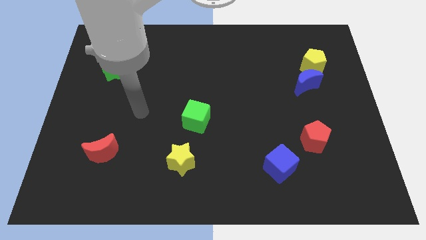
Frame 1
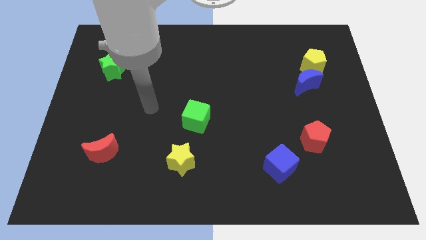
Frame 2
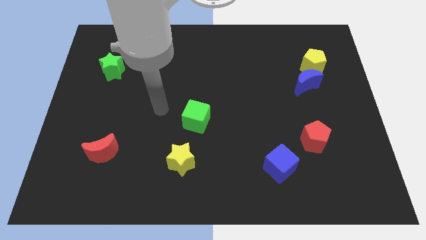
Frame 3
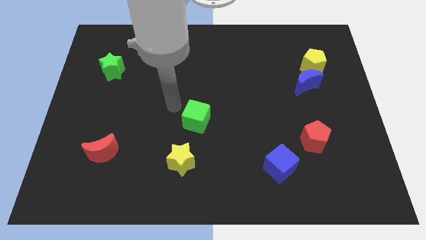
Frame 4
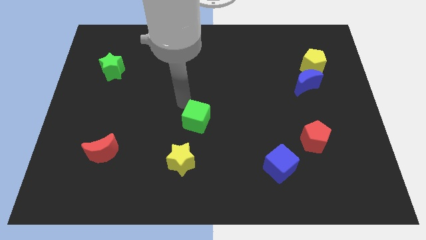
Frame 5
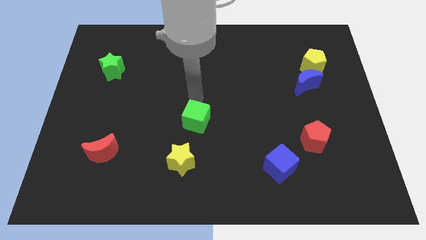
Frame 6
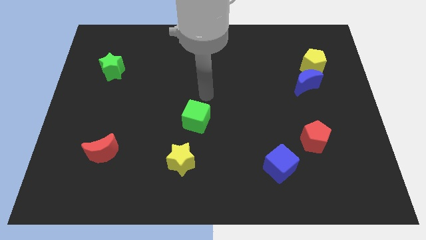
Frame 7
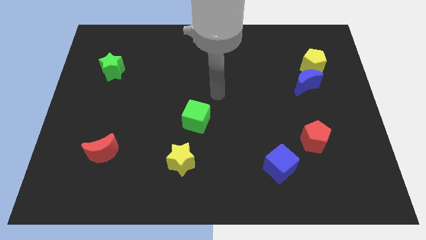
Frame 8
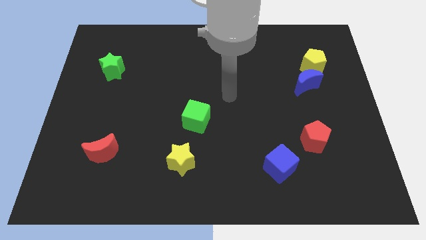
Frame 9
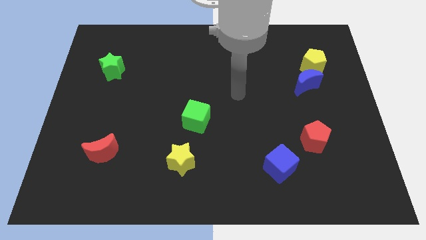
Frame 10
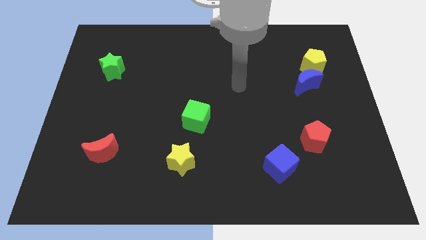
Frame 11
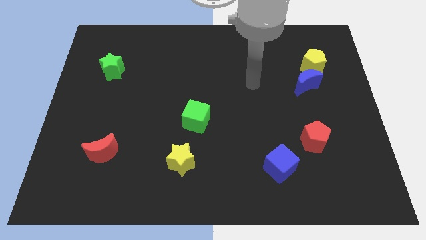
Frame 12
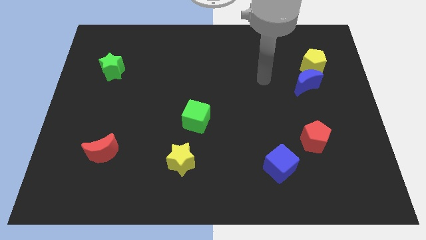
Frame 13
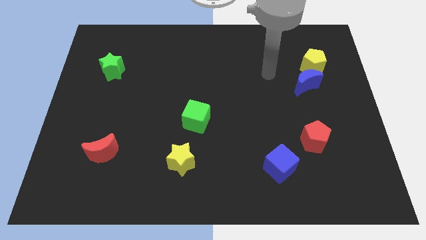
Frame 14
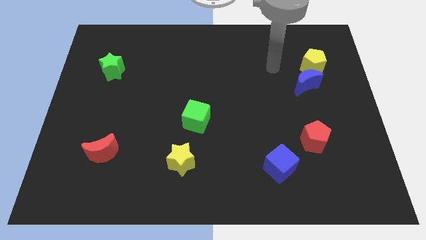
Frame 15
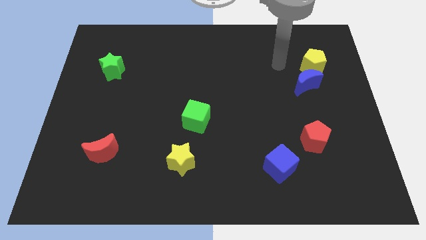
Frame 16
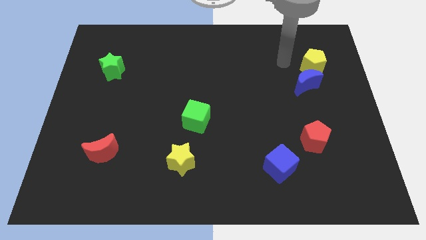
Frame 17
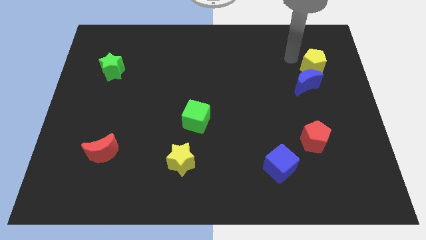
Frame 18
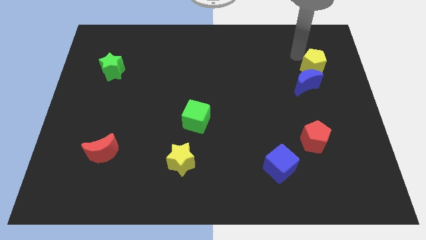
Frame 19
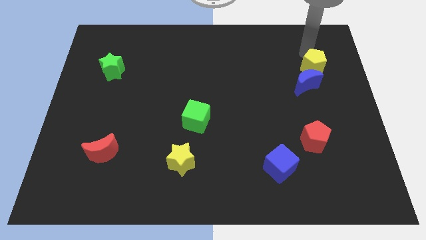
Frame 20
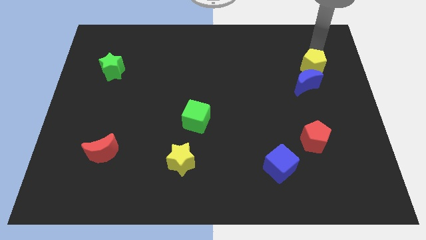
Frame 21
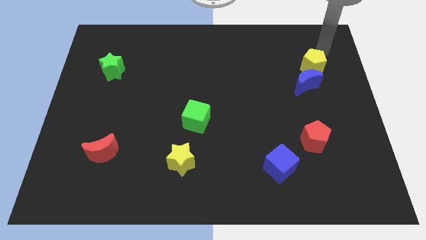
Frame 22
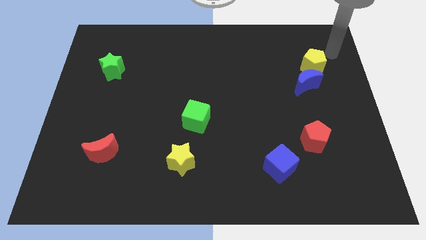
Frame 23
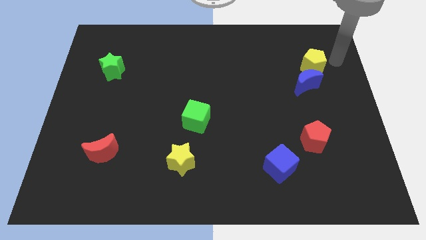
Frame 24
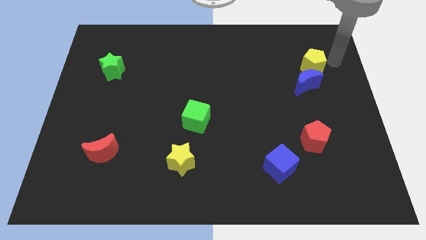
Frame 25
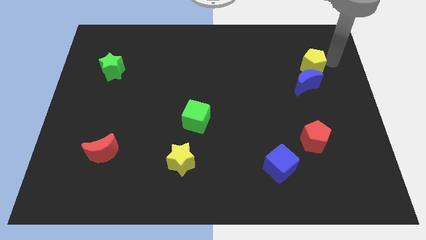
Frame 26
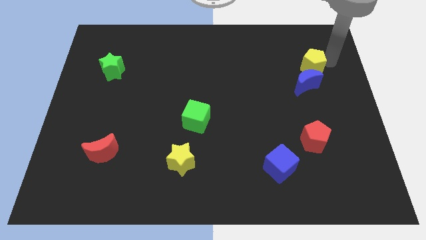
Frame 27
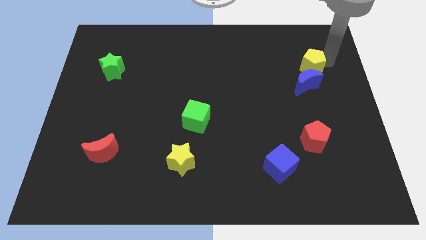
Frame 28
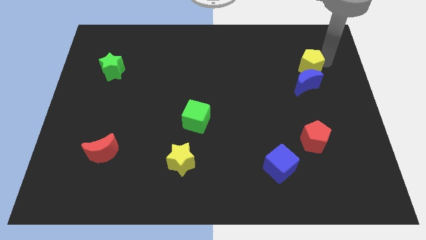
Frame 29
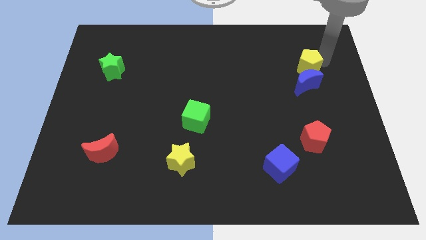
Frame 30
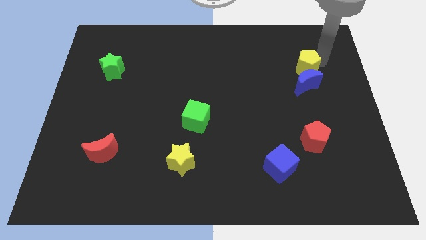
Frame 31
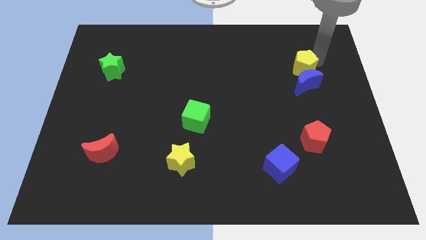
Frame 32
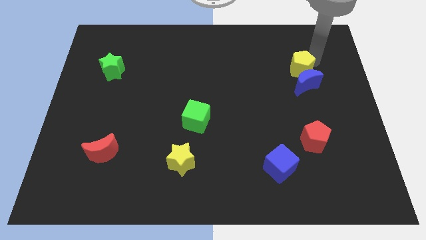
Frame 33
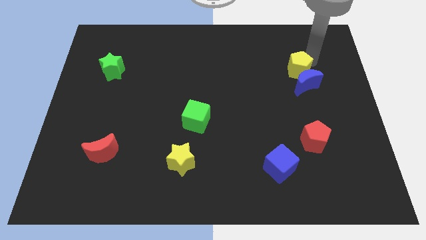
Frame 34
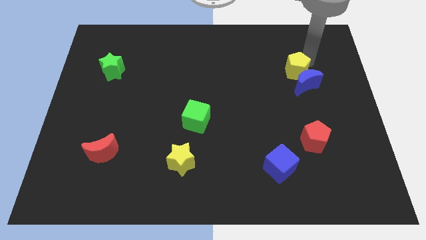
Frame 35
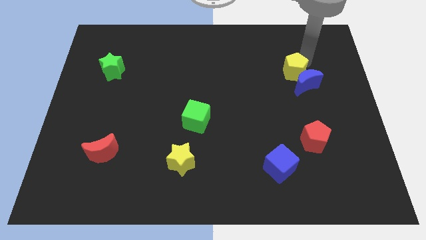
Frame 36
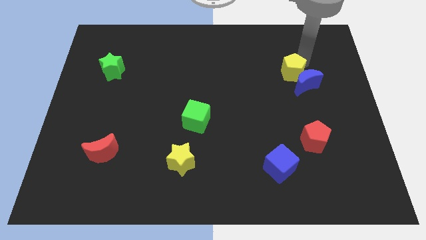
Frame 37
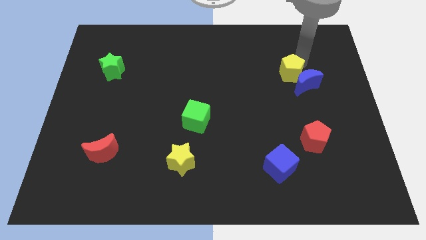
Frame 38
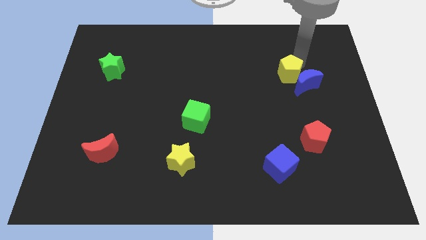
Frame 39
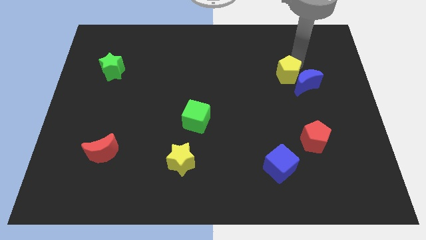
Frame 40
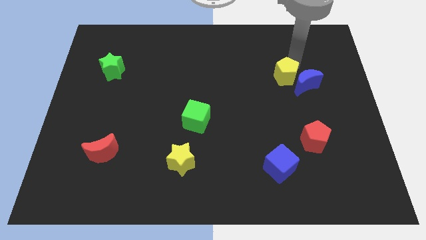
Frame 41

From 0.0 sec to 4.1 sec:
push the yellow pentagon slightly downwards and then to the left

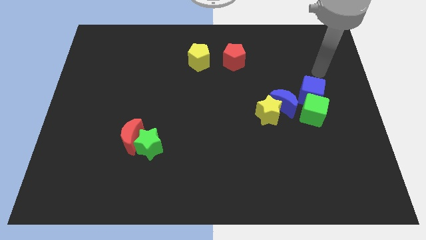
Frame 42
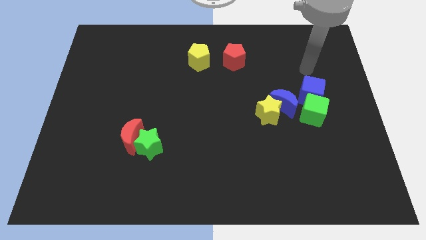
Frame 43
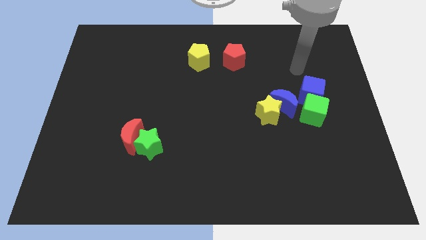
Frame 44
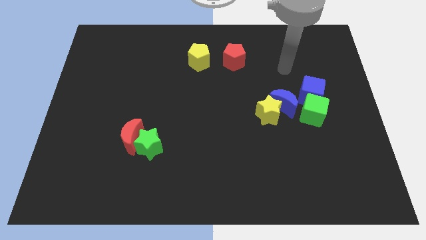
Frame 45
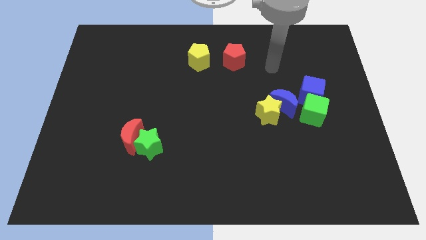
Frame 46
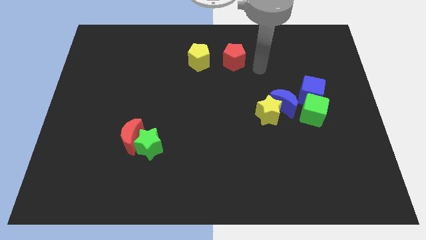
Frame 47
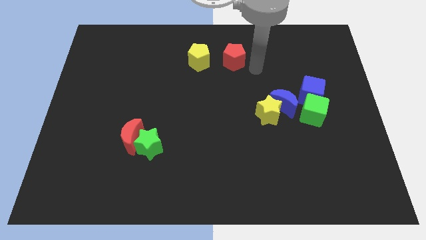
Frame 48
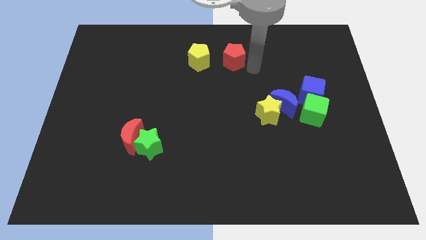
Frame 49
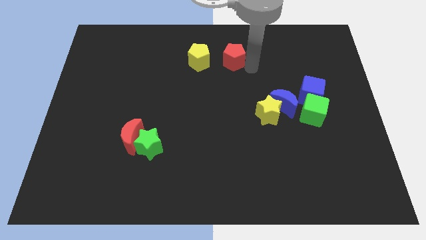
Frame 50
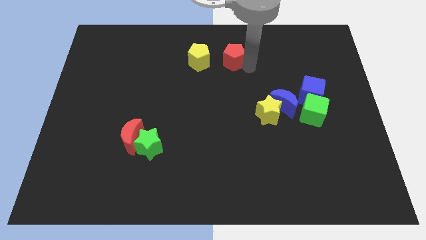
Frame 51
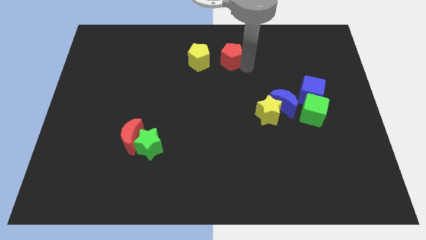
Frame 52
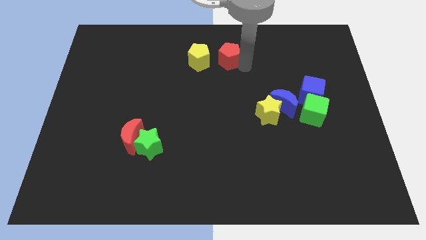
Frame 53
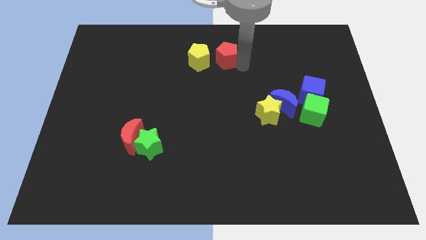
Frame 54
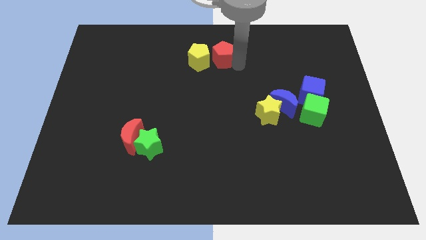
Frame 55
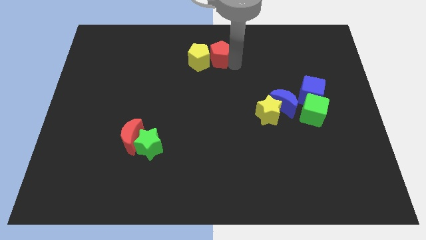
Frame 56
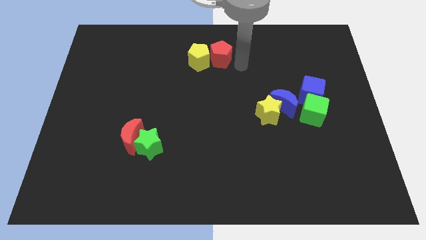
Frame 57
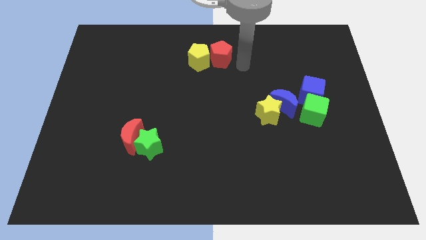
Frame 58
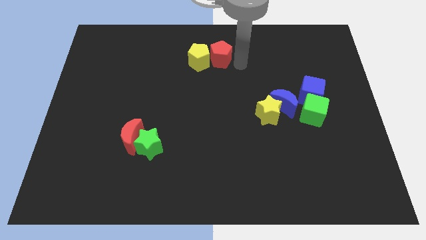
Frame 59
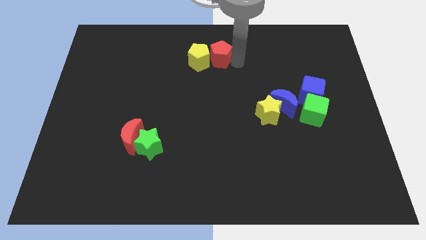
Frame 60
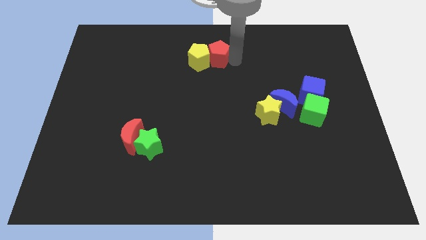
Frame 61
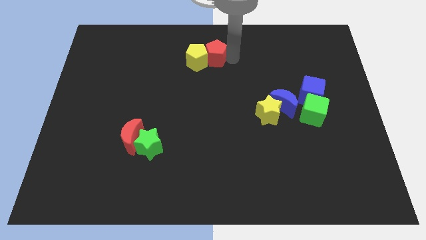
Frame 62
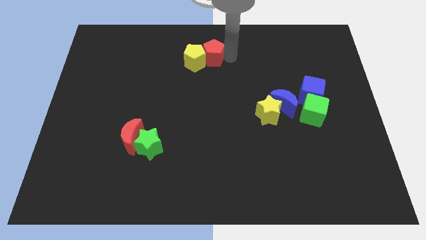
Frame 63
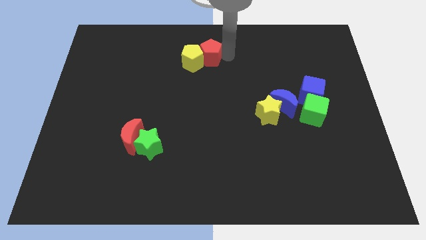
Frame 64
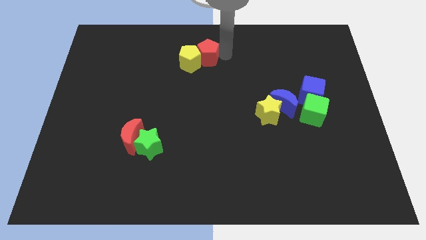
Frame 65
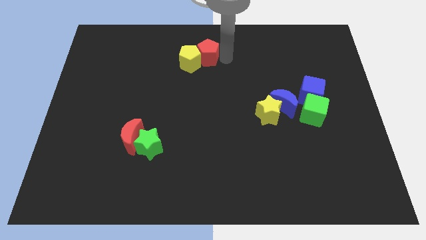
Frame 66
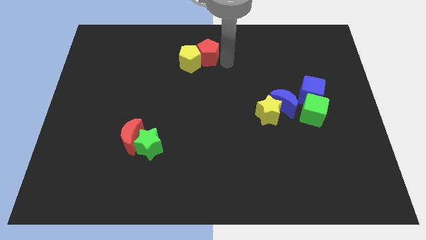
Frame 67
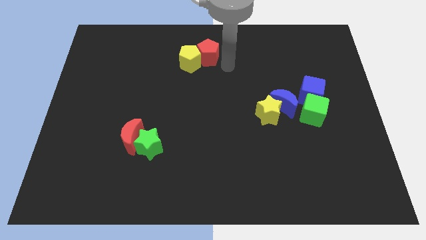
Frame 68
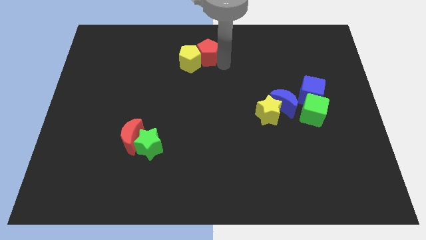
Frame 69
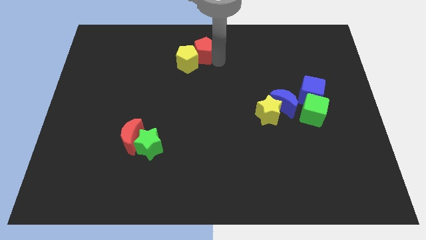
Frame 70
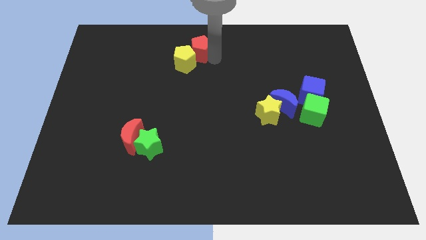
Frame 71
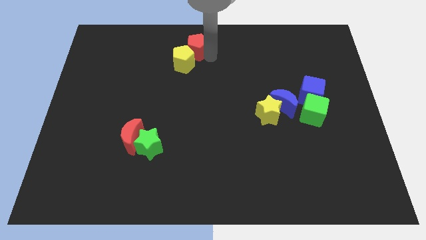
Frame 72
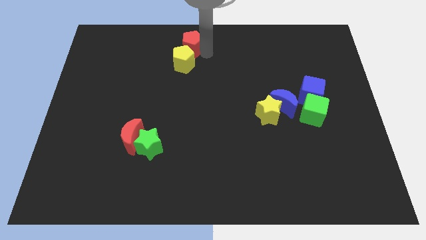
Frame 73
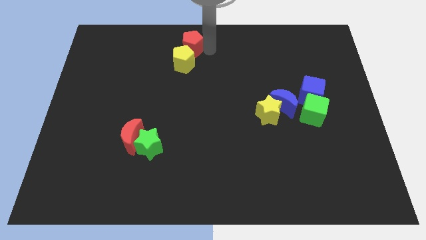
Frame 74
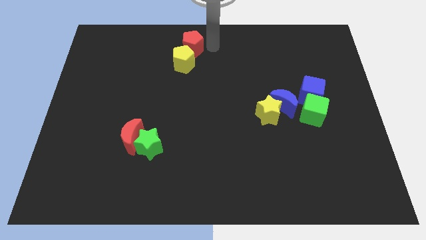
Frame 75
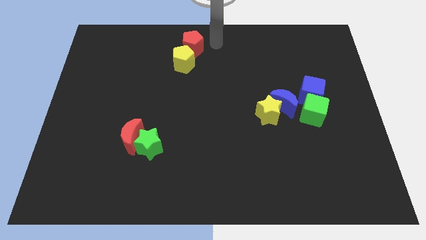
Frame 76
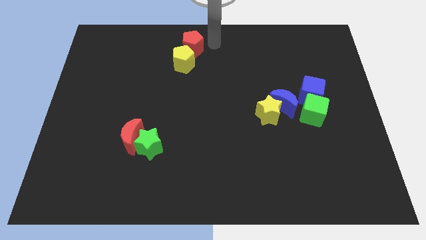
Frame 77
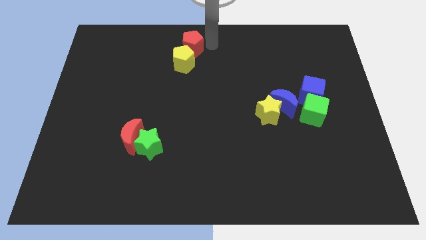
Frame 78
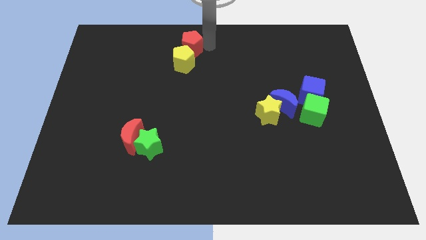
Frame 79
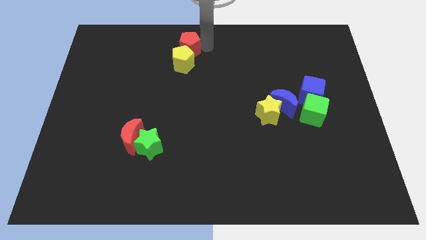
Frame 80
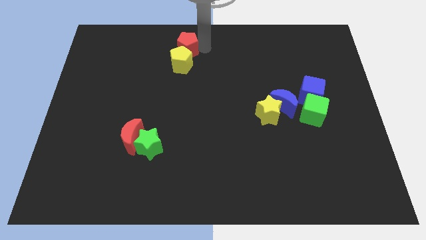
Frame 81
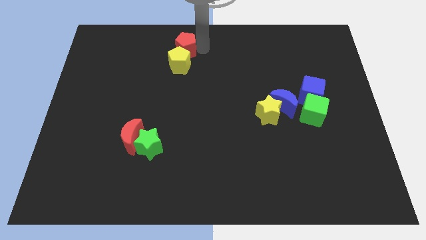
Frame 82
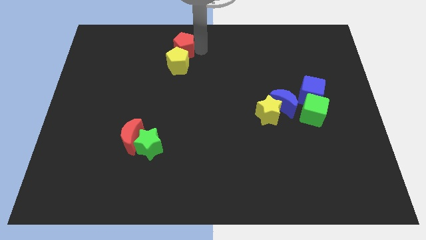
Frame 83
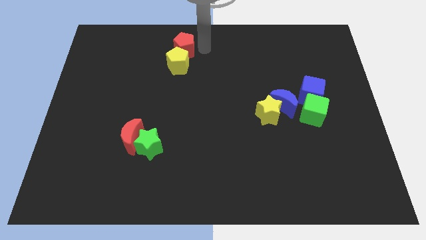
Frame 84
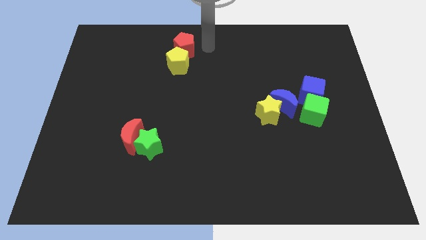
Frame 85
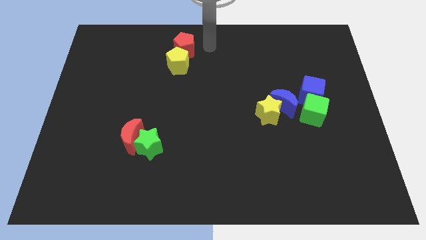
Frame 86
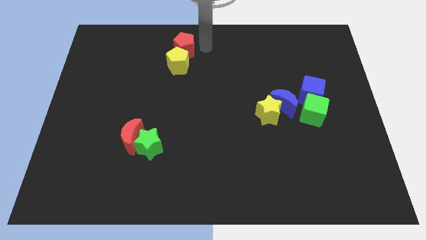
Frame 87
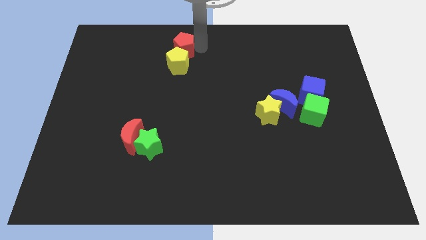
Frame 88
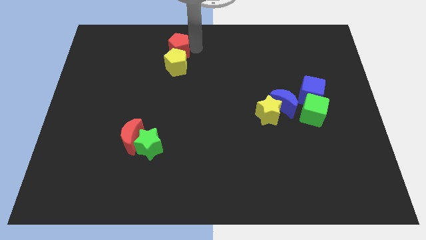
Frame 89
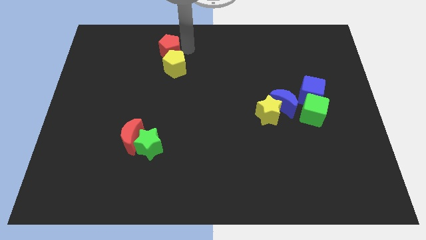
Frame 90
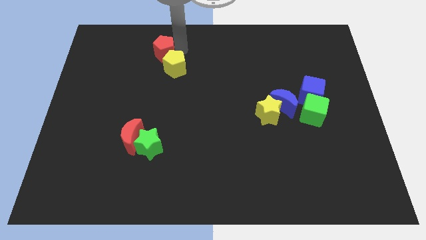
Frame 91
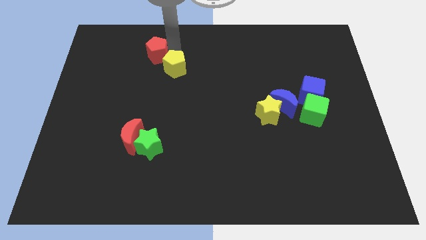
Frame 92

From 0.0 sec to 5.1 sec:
move the red pentagon to the left
